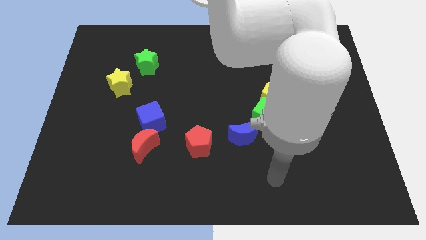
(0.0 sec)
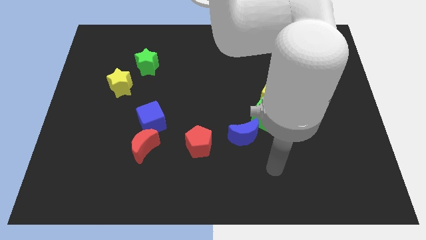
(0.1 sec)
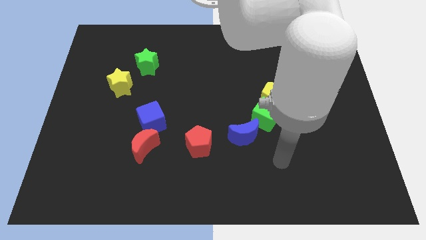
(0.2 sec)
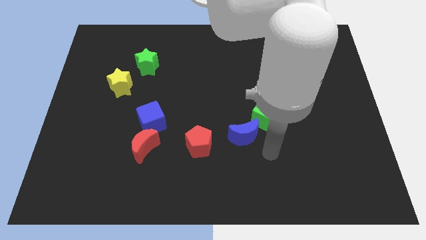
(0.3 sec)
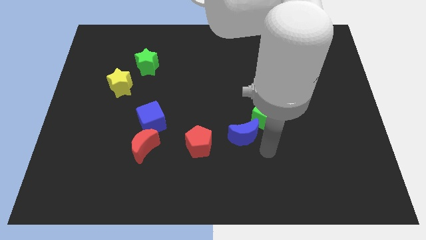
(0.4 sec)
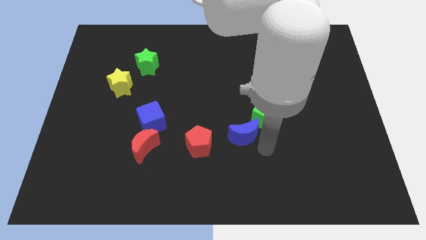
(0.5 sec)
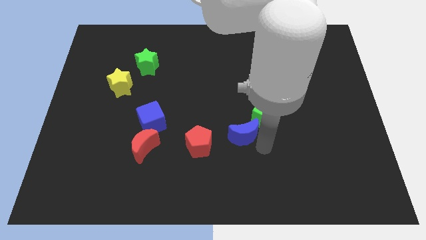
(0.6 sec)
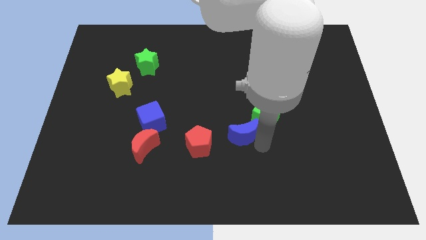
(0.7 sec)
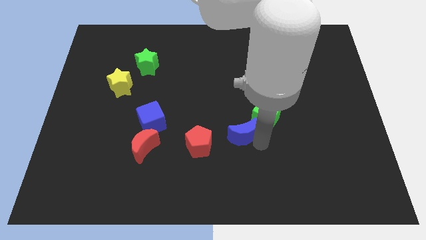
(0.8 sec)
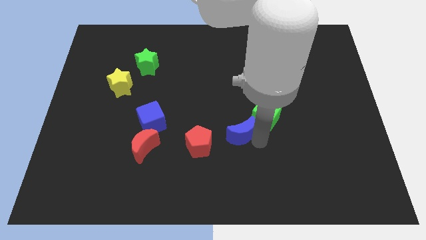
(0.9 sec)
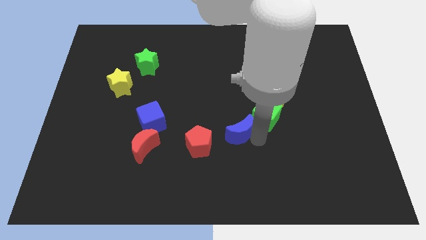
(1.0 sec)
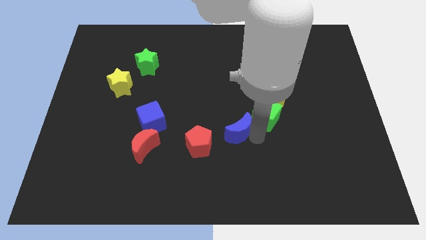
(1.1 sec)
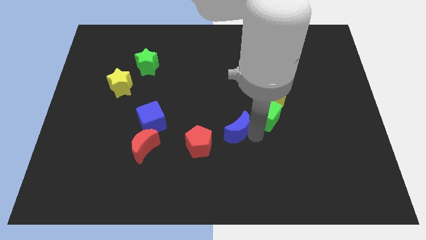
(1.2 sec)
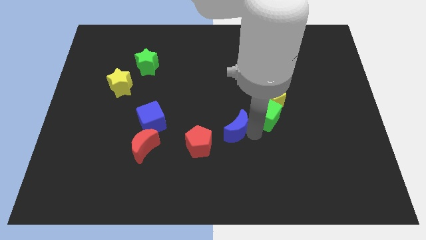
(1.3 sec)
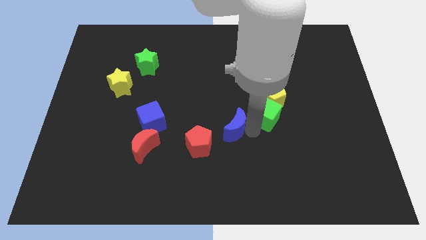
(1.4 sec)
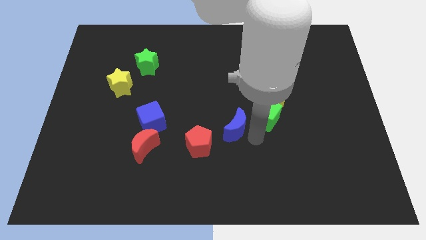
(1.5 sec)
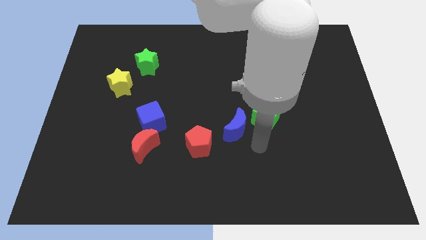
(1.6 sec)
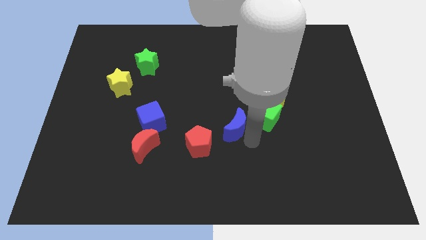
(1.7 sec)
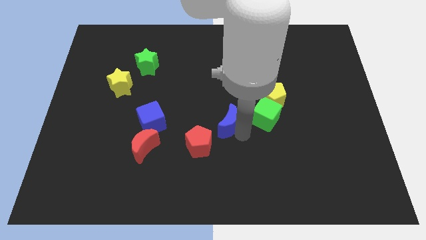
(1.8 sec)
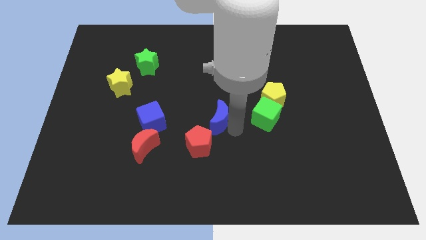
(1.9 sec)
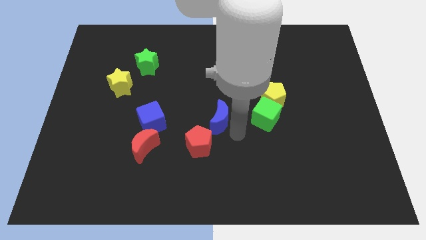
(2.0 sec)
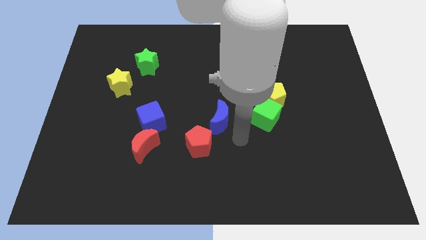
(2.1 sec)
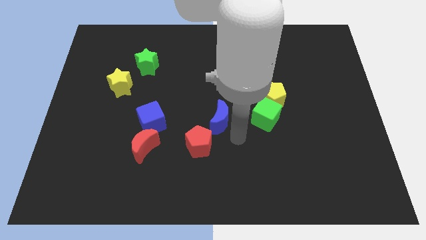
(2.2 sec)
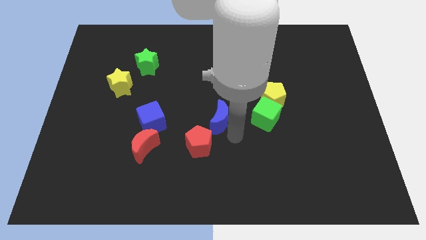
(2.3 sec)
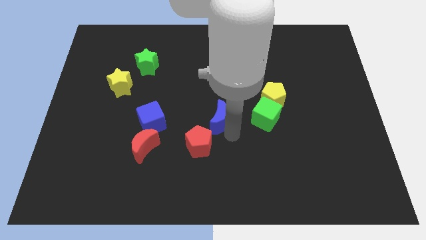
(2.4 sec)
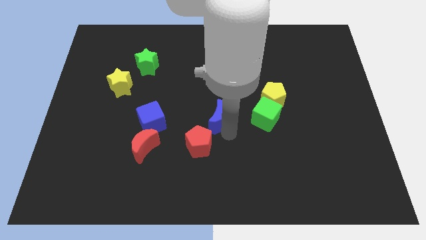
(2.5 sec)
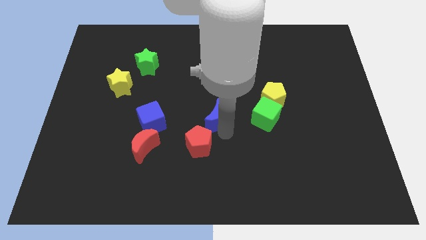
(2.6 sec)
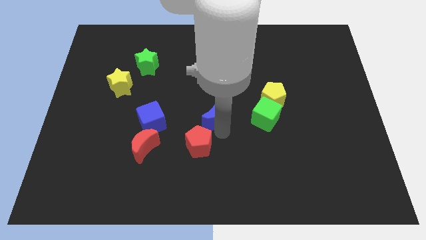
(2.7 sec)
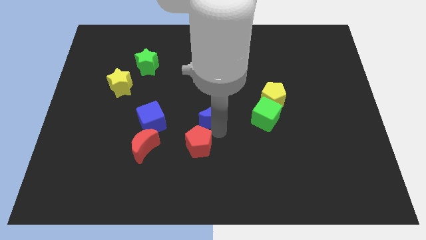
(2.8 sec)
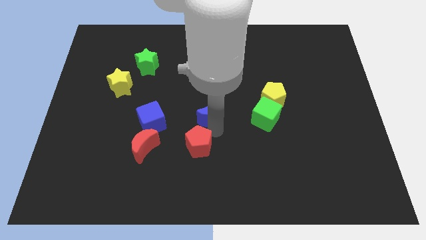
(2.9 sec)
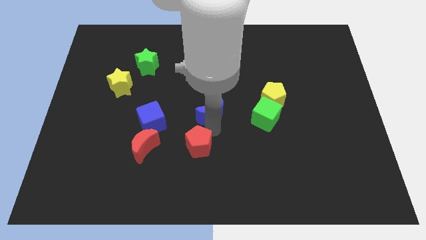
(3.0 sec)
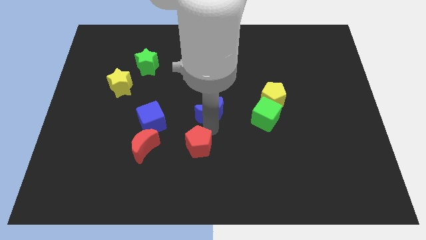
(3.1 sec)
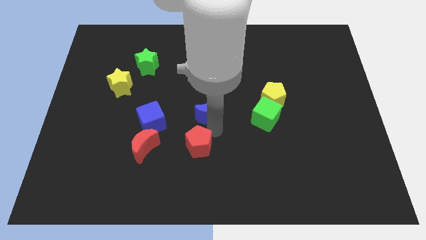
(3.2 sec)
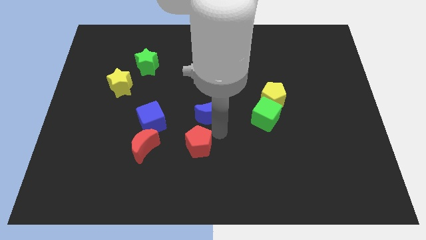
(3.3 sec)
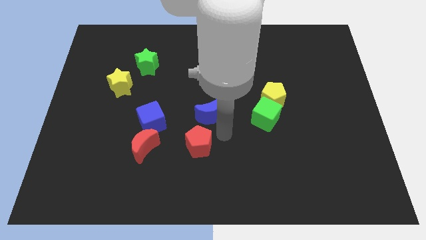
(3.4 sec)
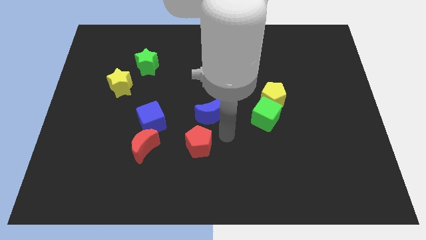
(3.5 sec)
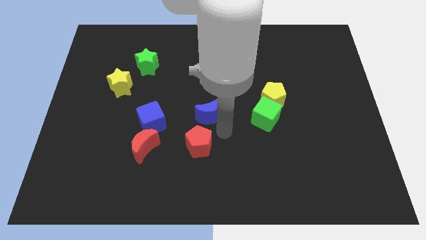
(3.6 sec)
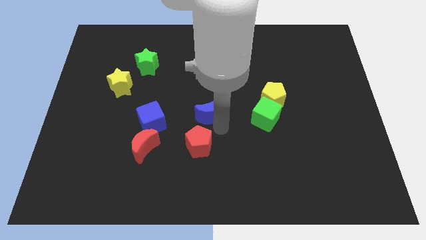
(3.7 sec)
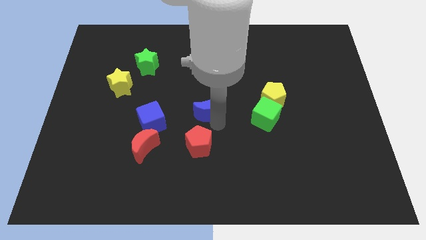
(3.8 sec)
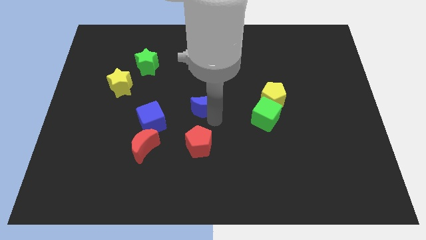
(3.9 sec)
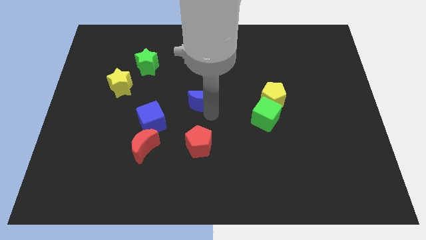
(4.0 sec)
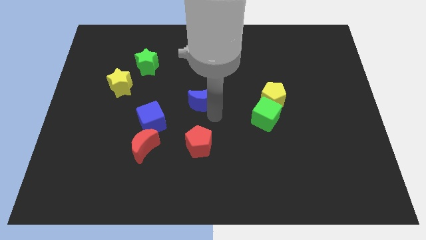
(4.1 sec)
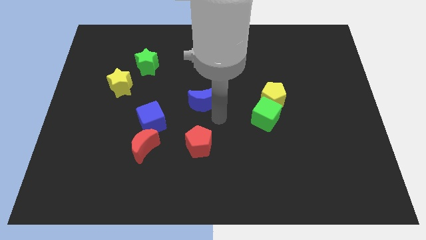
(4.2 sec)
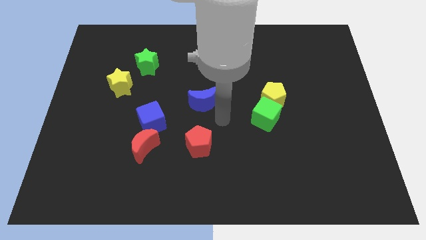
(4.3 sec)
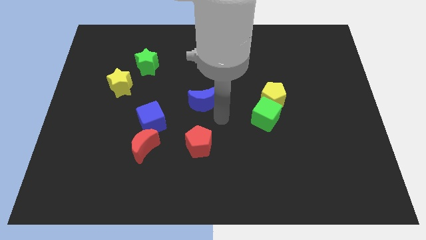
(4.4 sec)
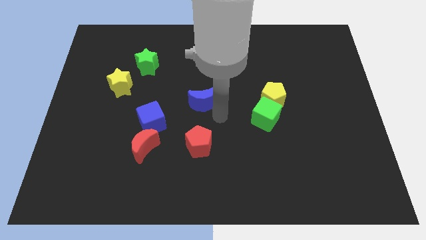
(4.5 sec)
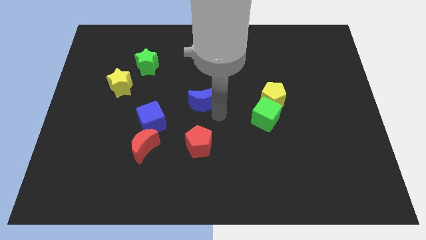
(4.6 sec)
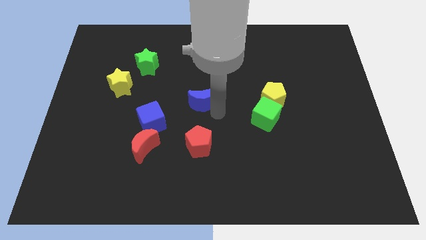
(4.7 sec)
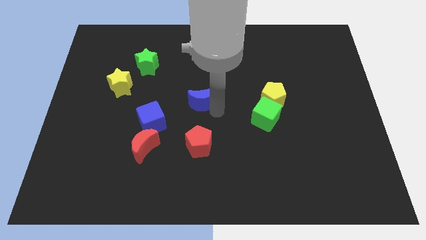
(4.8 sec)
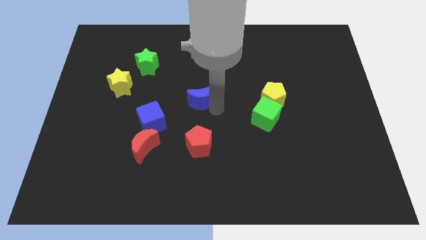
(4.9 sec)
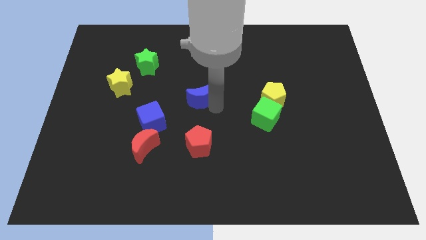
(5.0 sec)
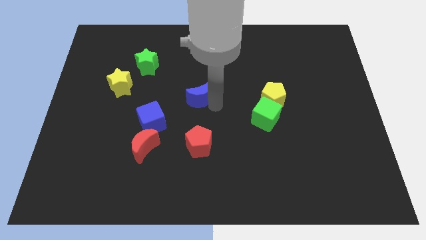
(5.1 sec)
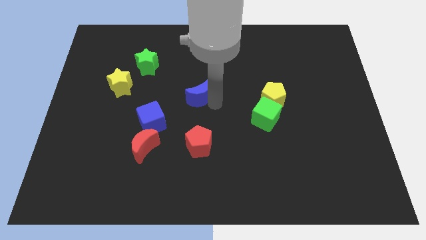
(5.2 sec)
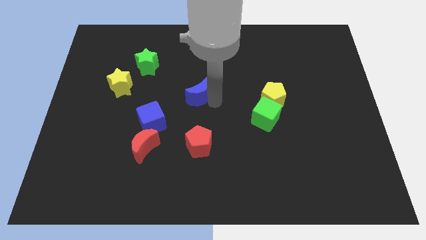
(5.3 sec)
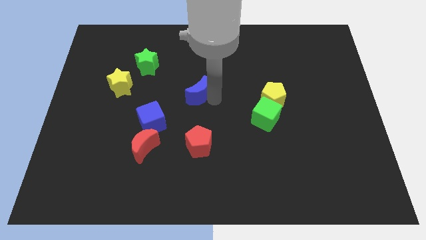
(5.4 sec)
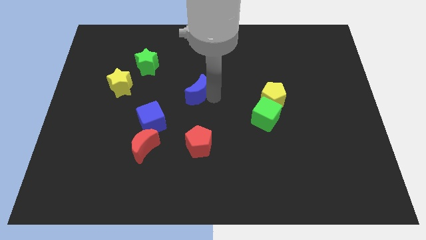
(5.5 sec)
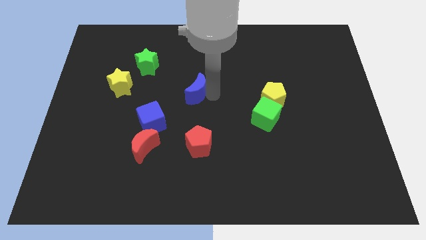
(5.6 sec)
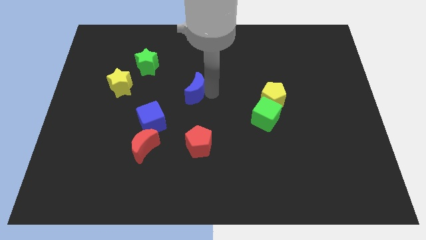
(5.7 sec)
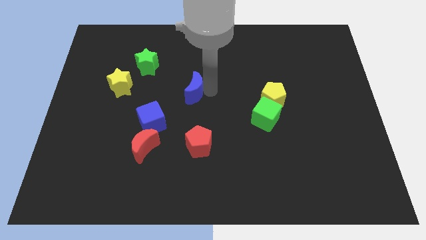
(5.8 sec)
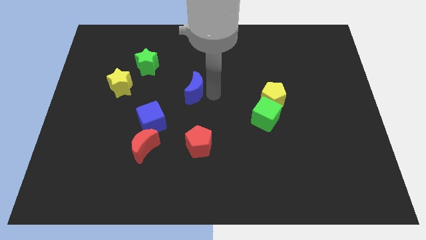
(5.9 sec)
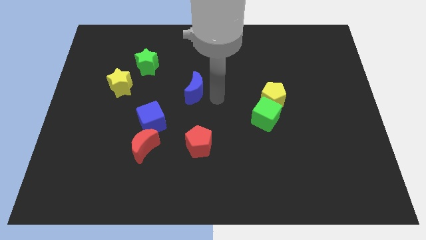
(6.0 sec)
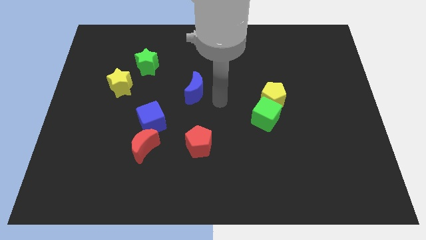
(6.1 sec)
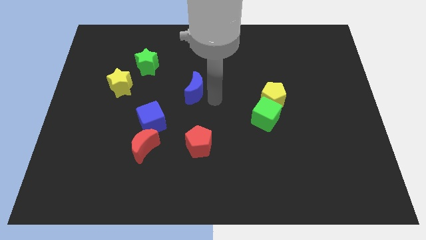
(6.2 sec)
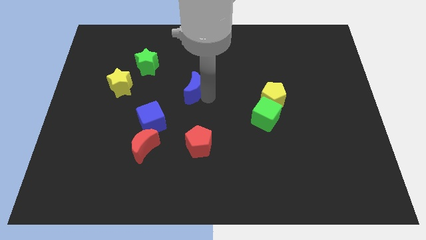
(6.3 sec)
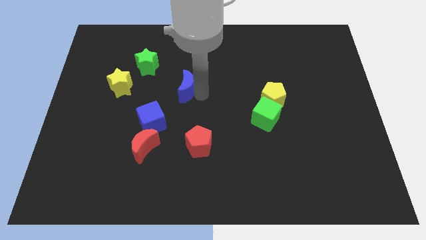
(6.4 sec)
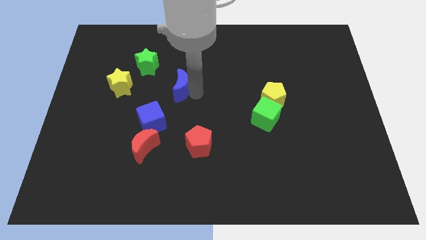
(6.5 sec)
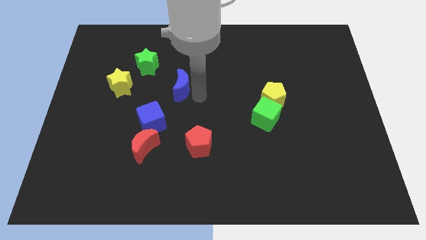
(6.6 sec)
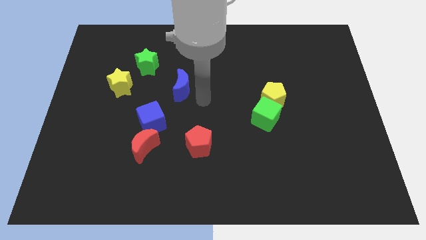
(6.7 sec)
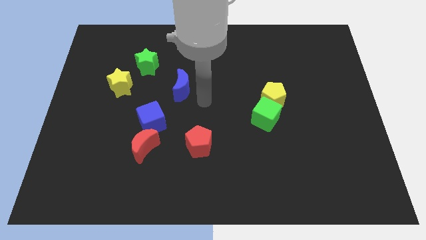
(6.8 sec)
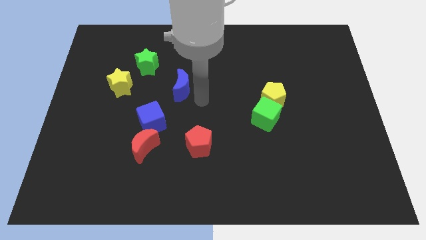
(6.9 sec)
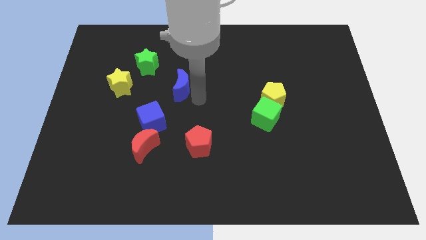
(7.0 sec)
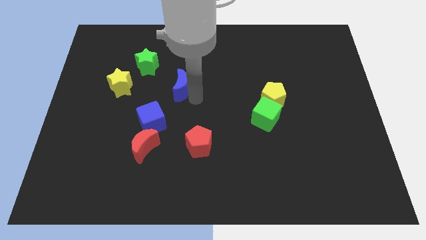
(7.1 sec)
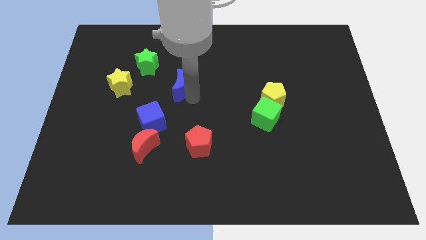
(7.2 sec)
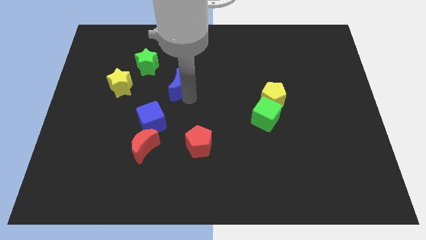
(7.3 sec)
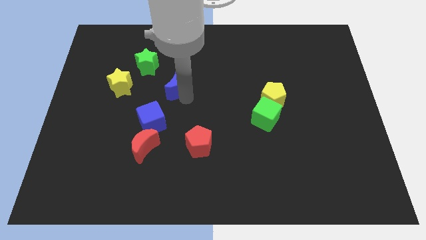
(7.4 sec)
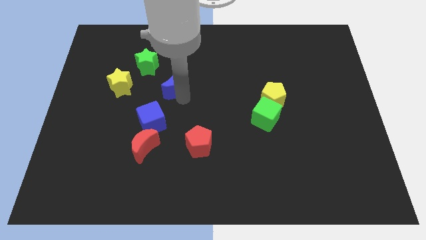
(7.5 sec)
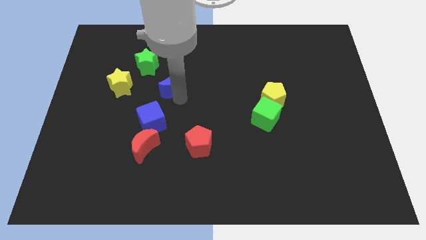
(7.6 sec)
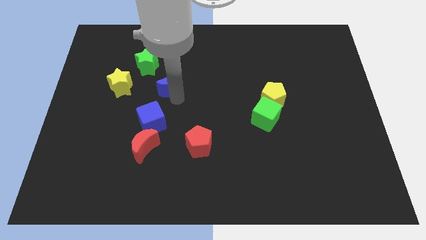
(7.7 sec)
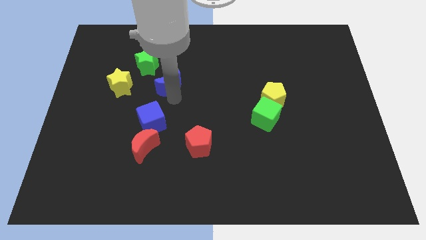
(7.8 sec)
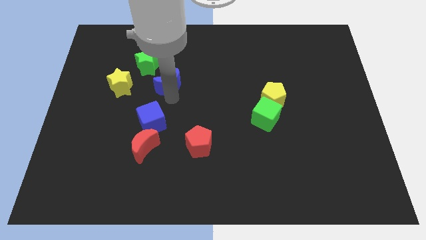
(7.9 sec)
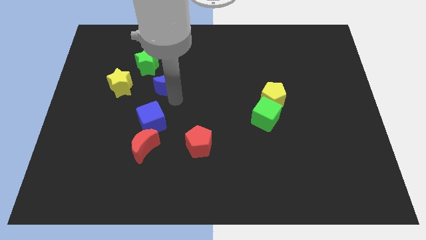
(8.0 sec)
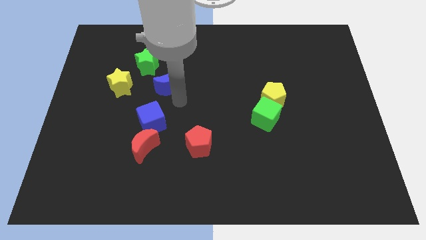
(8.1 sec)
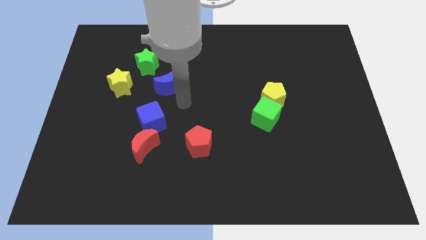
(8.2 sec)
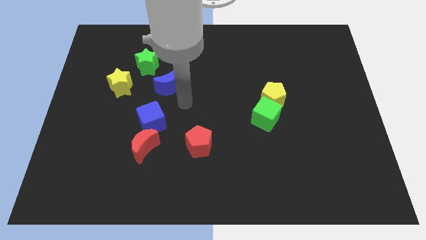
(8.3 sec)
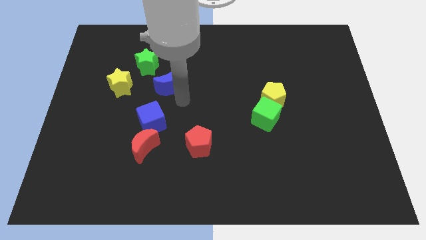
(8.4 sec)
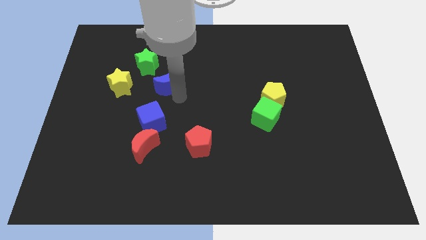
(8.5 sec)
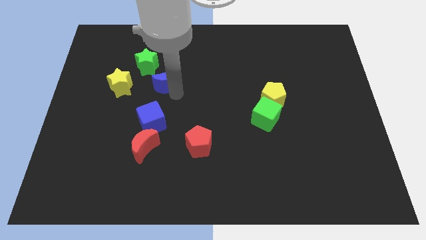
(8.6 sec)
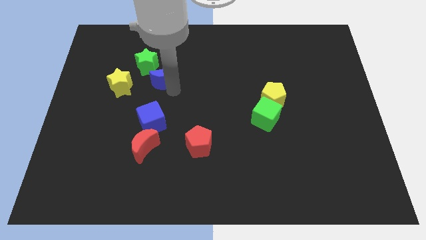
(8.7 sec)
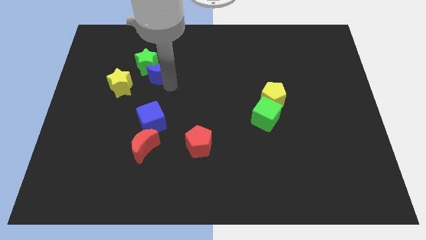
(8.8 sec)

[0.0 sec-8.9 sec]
move the blue moon towards the green star
